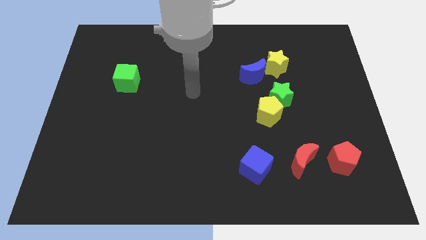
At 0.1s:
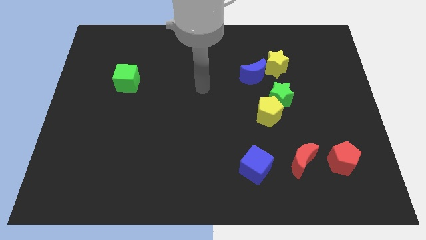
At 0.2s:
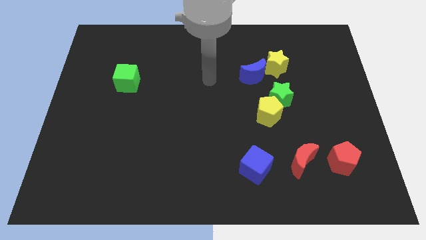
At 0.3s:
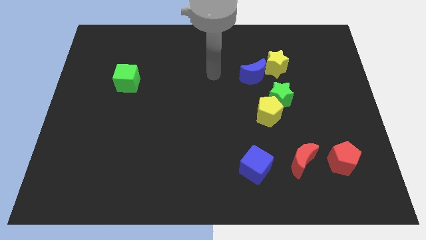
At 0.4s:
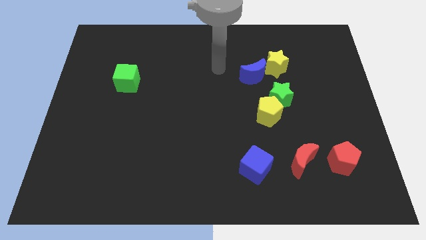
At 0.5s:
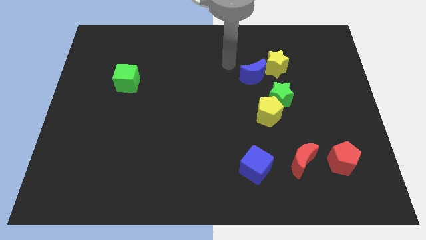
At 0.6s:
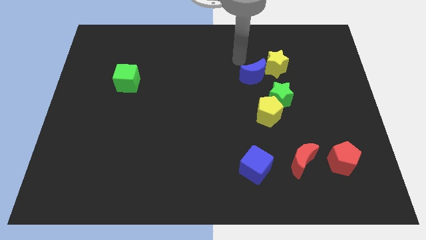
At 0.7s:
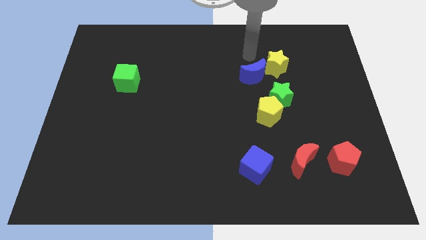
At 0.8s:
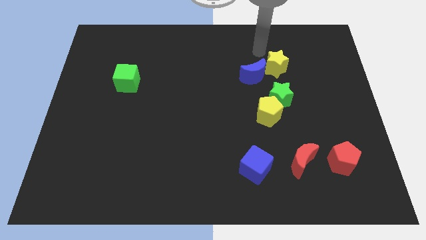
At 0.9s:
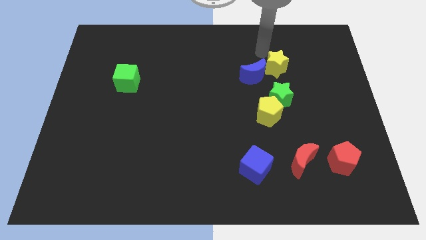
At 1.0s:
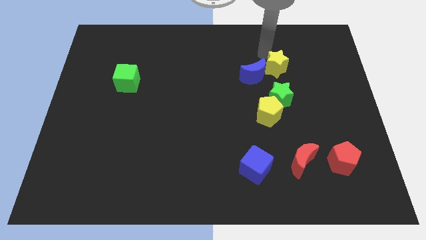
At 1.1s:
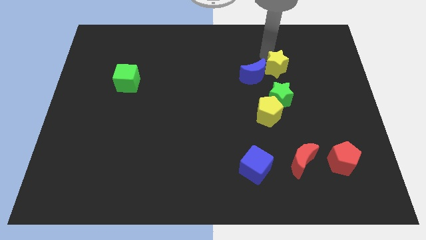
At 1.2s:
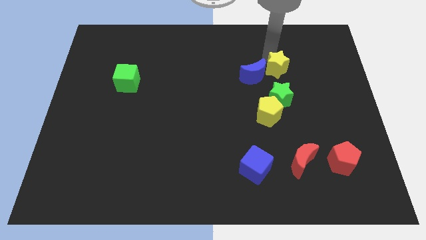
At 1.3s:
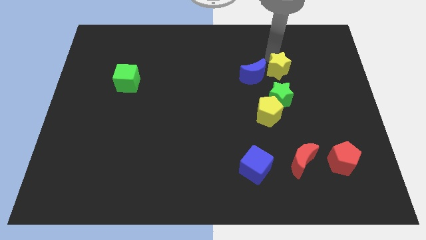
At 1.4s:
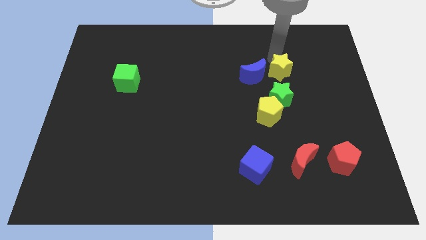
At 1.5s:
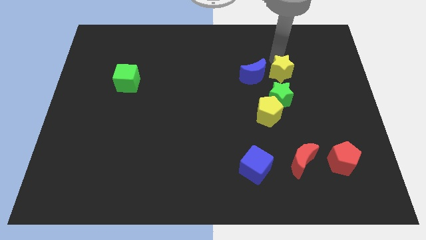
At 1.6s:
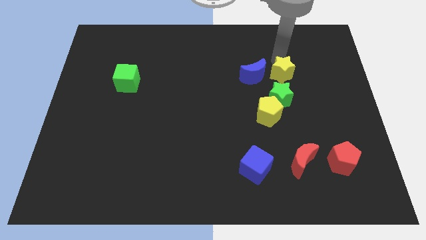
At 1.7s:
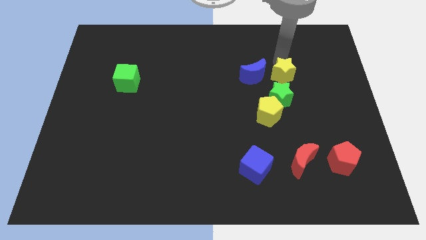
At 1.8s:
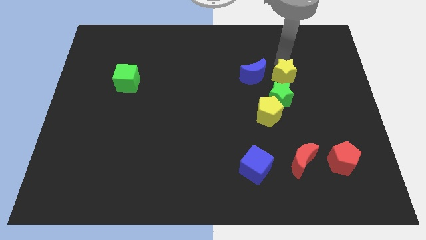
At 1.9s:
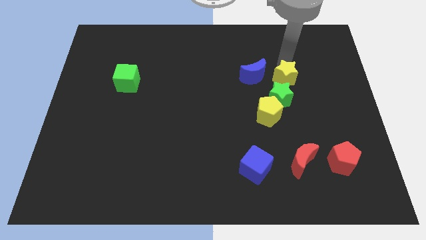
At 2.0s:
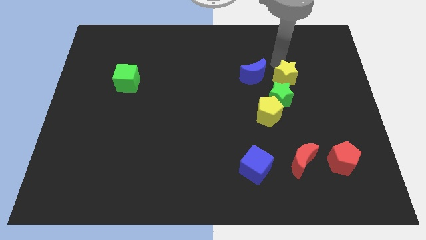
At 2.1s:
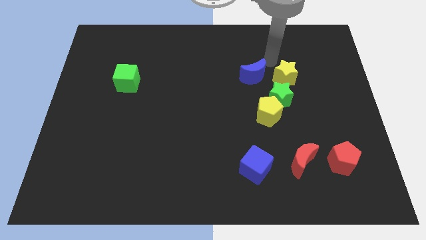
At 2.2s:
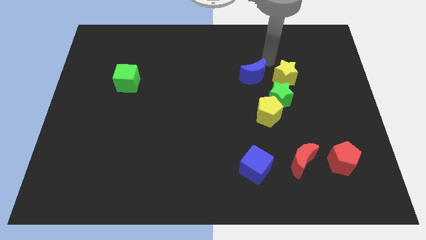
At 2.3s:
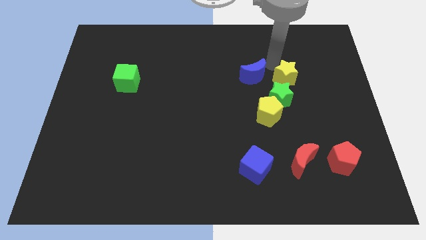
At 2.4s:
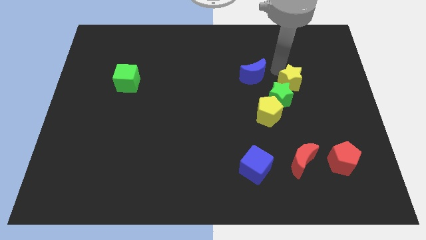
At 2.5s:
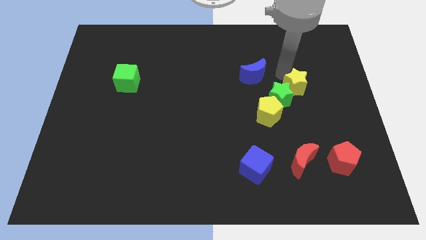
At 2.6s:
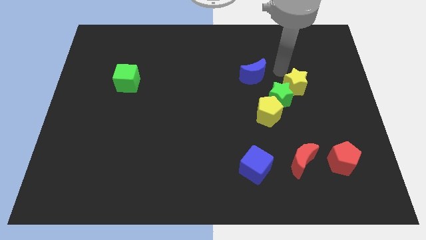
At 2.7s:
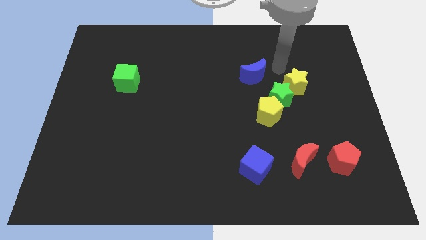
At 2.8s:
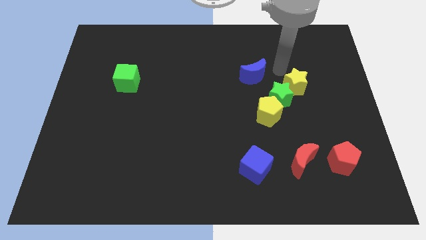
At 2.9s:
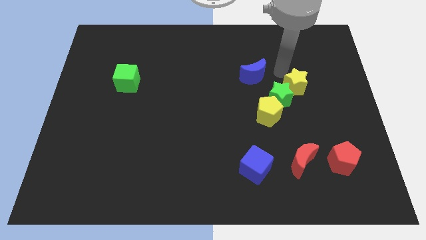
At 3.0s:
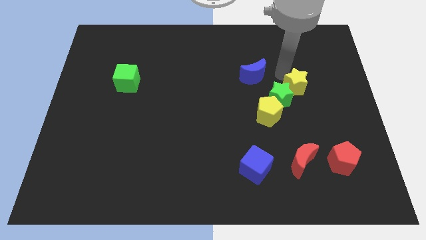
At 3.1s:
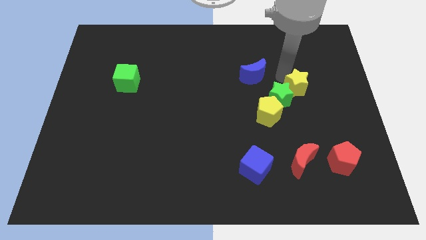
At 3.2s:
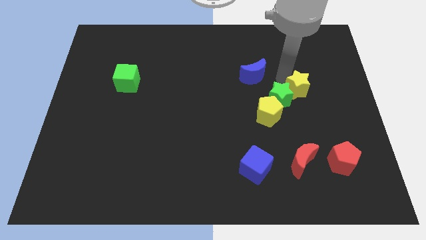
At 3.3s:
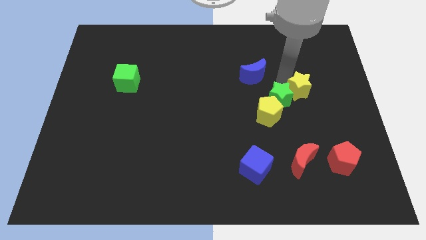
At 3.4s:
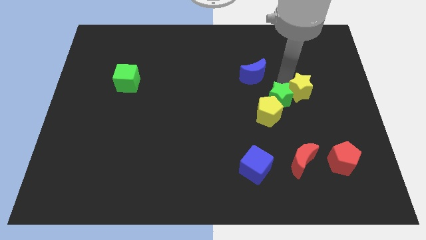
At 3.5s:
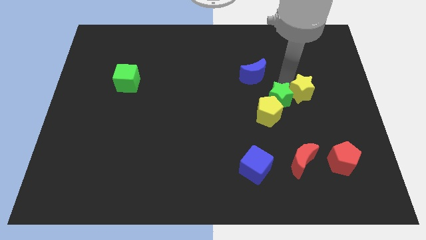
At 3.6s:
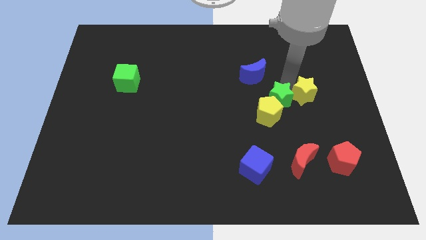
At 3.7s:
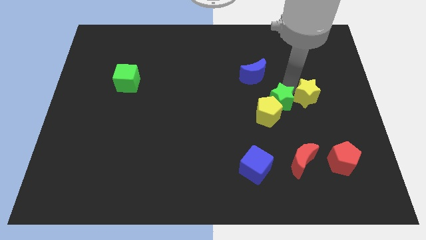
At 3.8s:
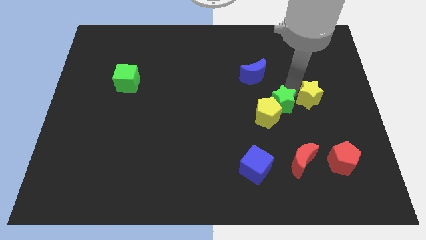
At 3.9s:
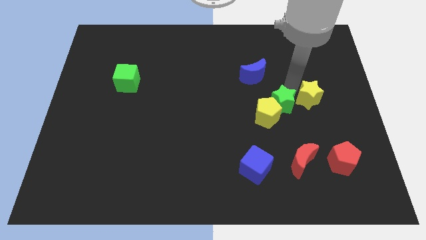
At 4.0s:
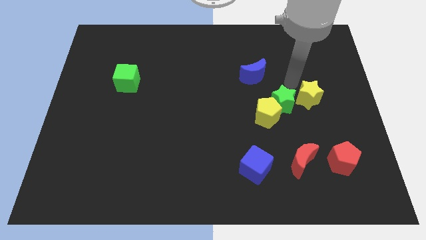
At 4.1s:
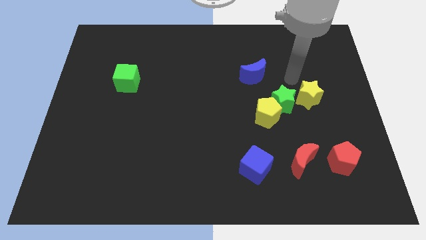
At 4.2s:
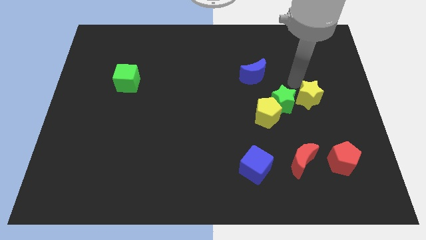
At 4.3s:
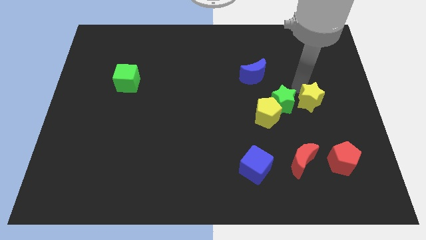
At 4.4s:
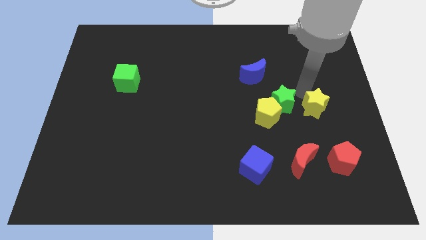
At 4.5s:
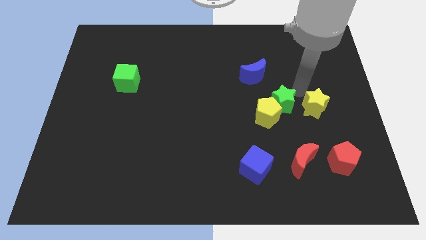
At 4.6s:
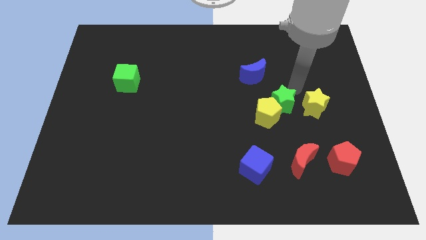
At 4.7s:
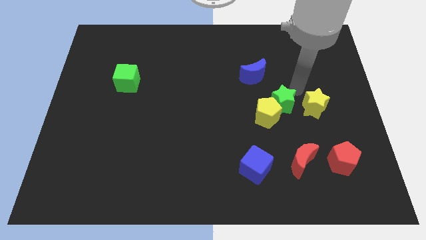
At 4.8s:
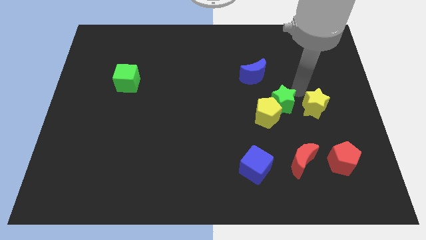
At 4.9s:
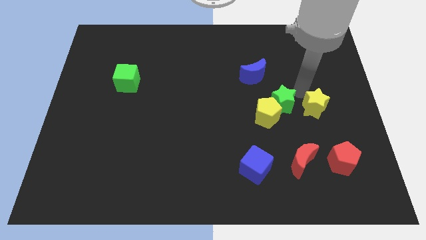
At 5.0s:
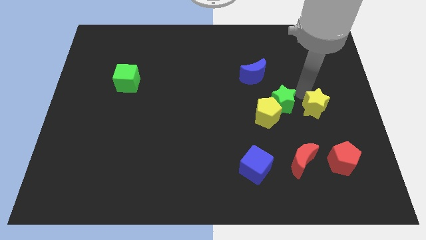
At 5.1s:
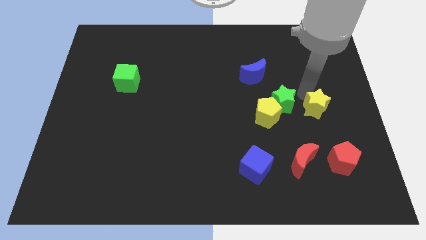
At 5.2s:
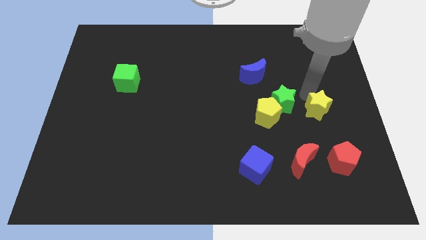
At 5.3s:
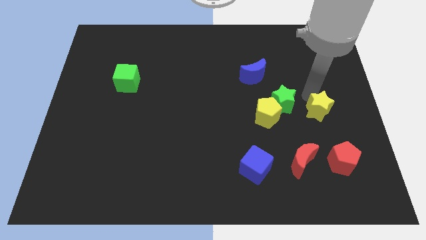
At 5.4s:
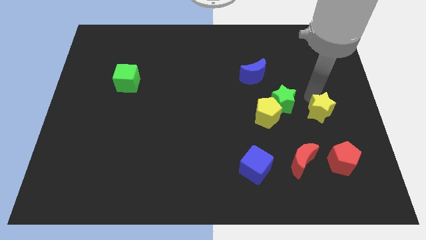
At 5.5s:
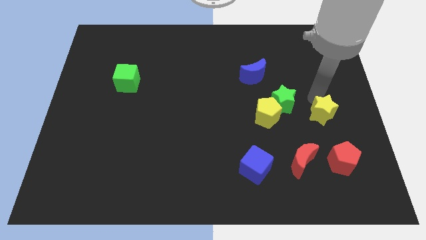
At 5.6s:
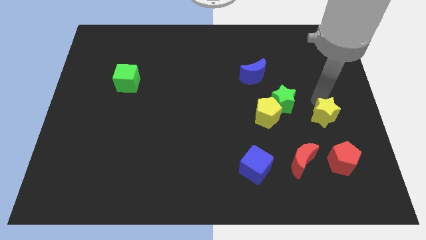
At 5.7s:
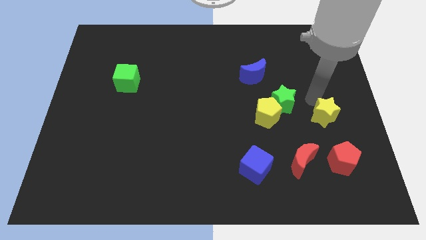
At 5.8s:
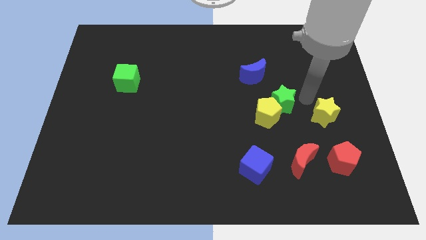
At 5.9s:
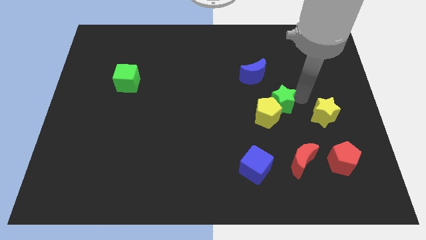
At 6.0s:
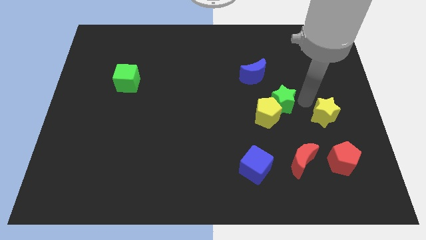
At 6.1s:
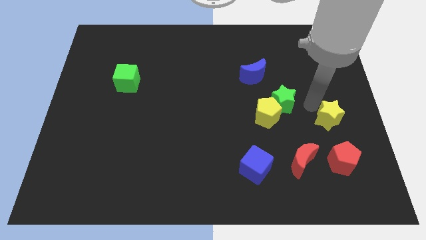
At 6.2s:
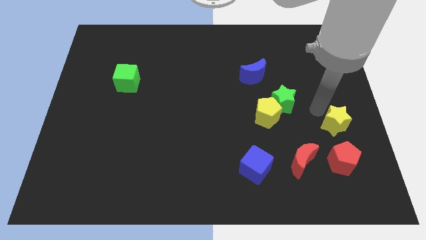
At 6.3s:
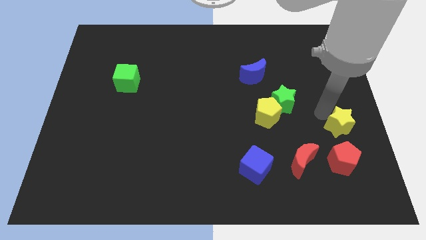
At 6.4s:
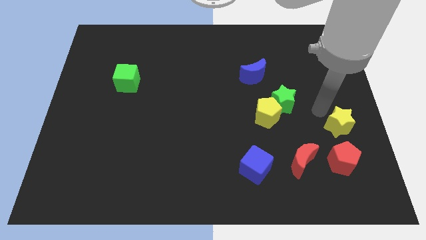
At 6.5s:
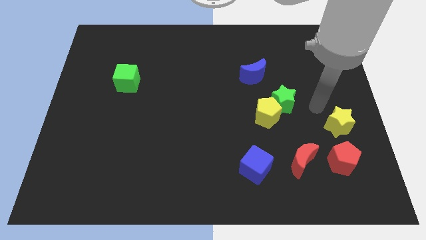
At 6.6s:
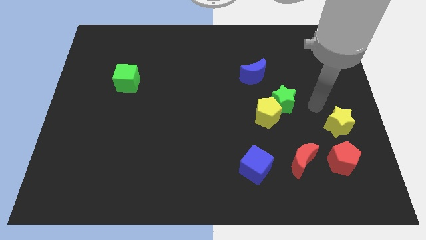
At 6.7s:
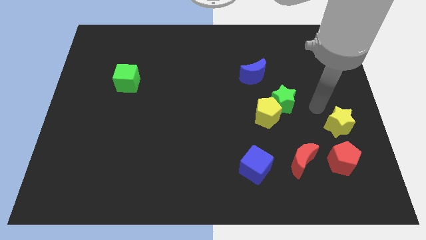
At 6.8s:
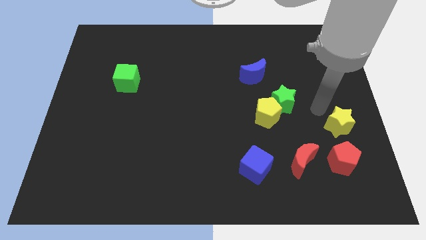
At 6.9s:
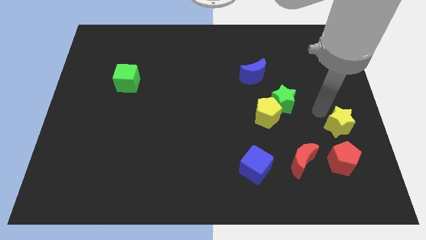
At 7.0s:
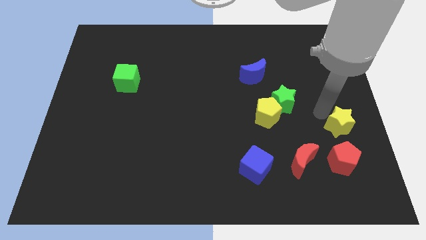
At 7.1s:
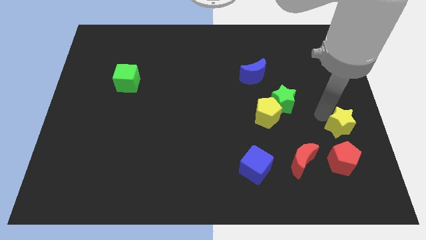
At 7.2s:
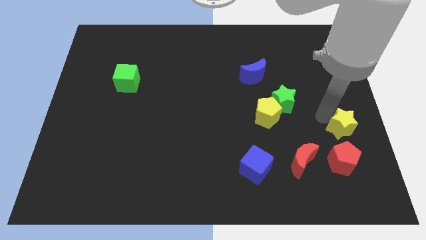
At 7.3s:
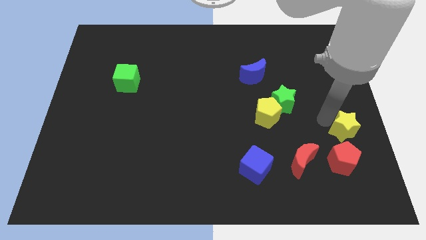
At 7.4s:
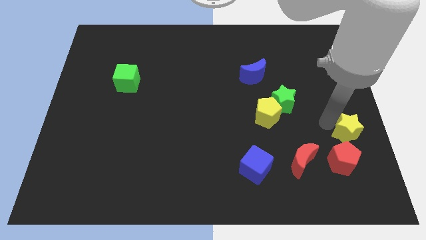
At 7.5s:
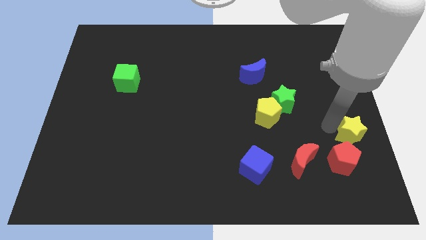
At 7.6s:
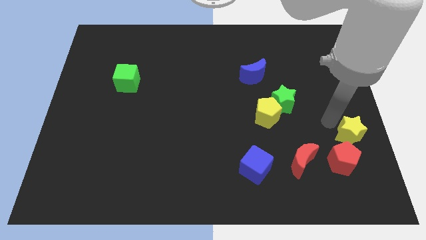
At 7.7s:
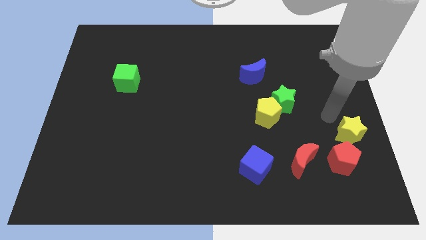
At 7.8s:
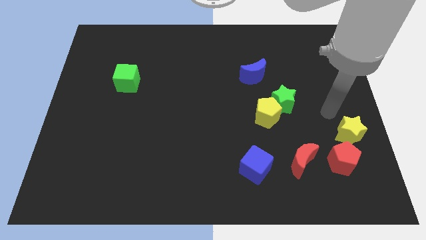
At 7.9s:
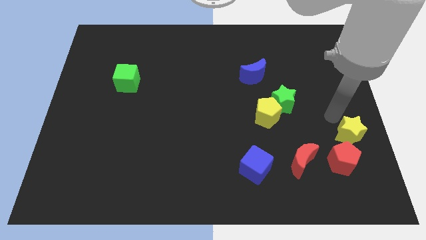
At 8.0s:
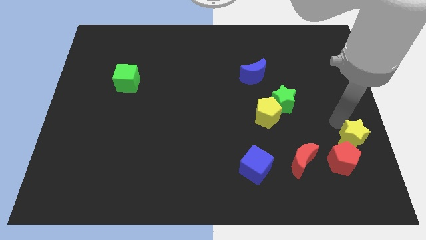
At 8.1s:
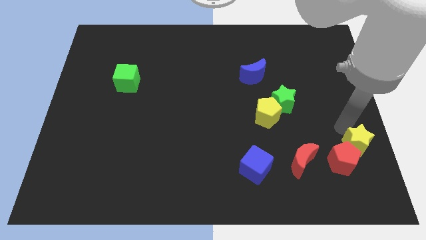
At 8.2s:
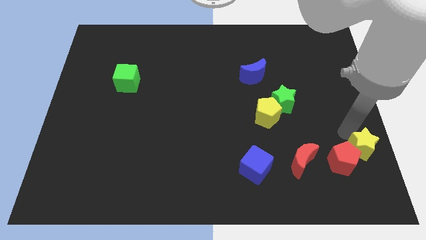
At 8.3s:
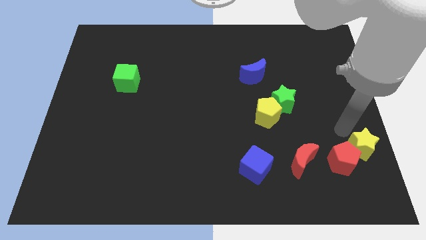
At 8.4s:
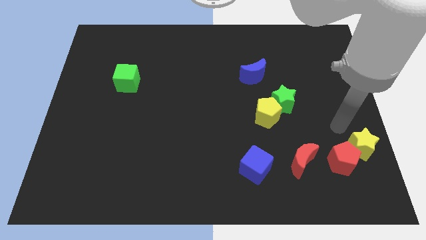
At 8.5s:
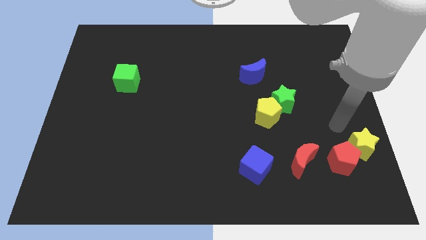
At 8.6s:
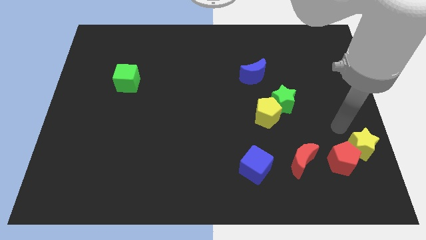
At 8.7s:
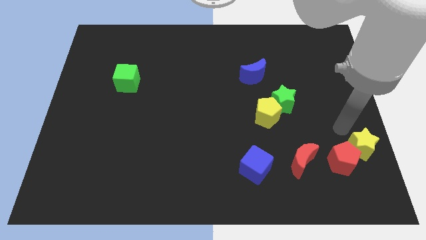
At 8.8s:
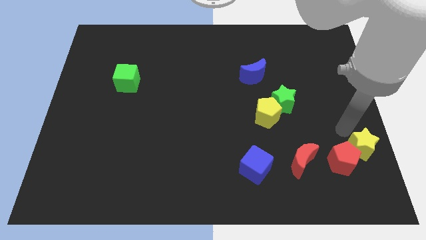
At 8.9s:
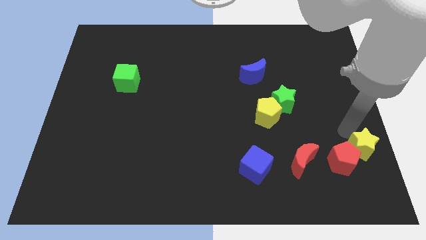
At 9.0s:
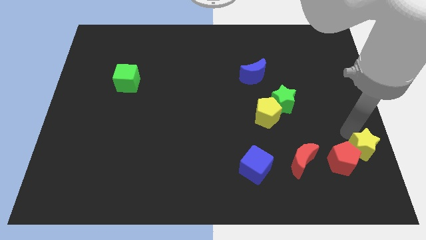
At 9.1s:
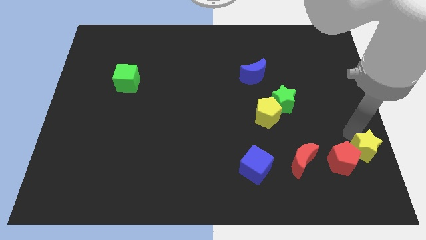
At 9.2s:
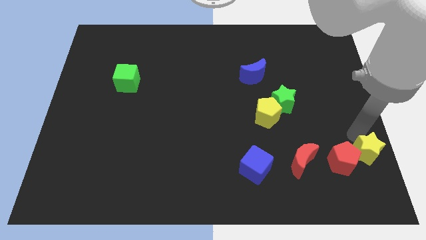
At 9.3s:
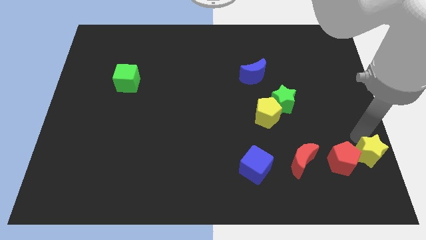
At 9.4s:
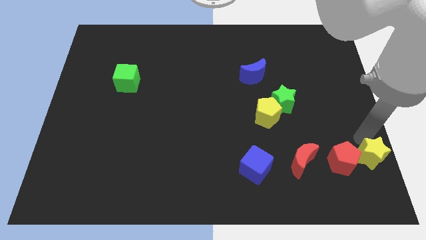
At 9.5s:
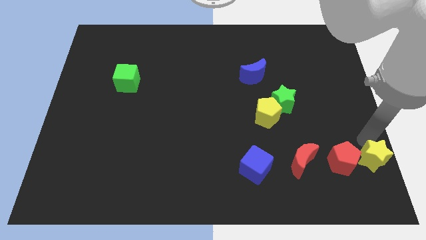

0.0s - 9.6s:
put the yellow star to the bottom right
